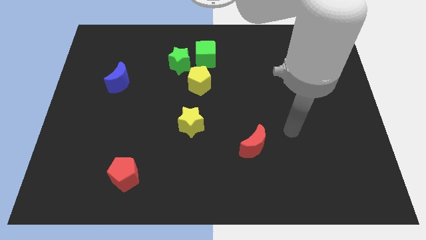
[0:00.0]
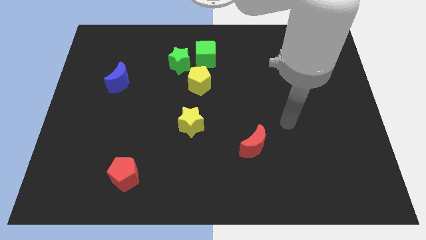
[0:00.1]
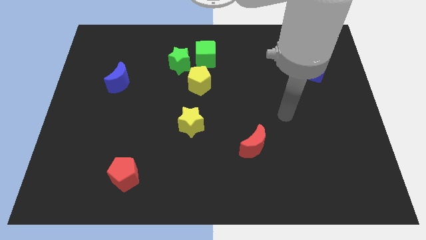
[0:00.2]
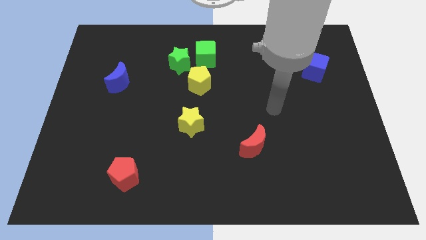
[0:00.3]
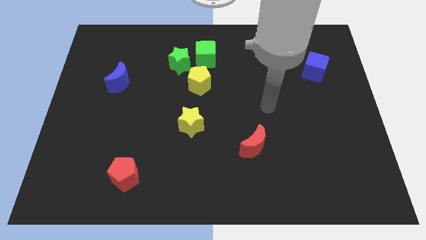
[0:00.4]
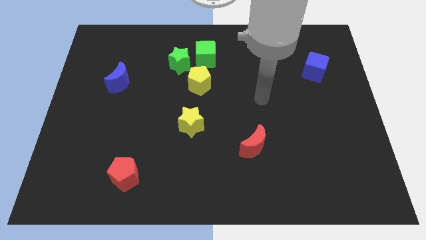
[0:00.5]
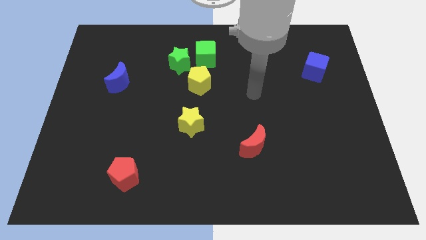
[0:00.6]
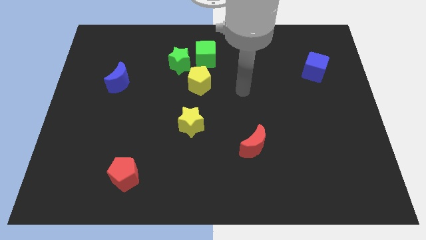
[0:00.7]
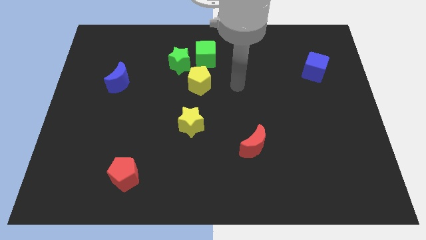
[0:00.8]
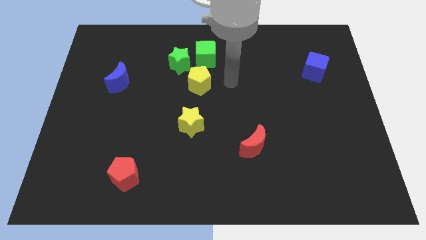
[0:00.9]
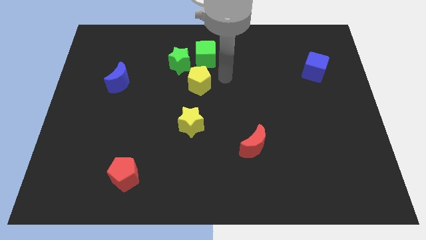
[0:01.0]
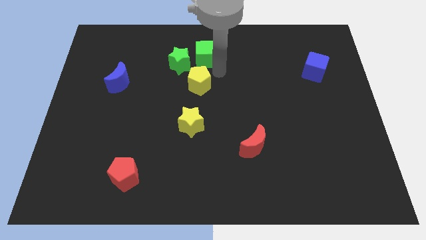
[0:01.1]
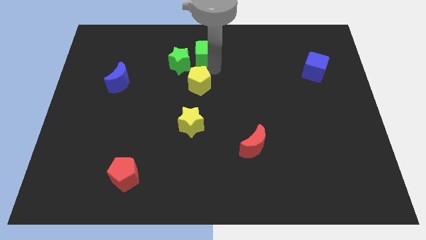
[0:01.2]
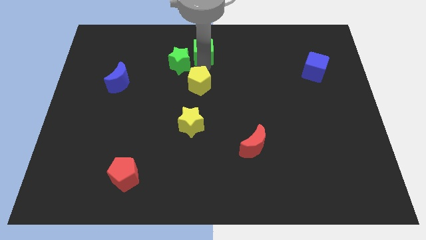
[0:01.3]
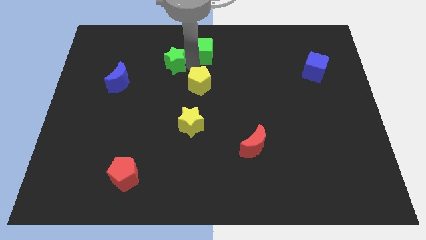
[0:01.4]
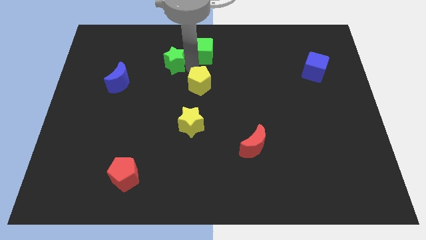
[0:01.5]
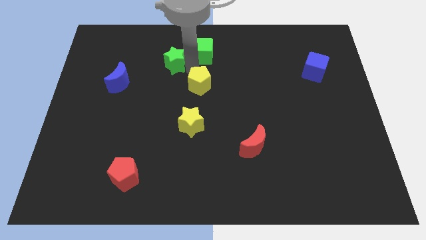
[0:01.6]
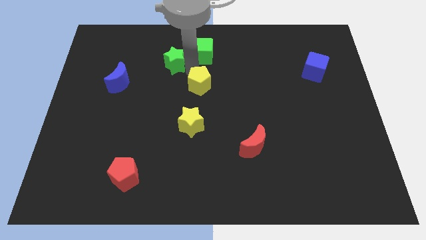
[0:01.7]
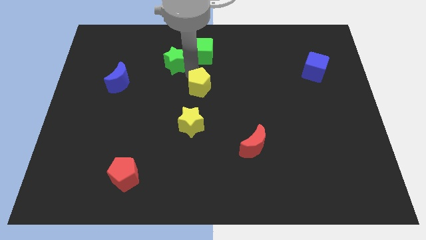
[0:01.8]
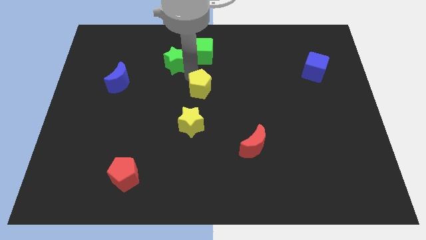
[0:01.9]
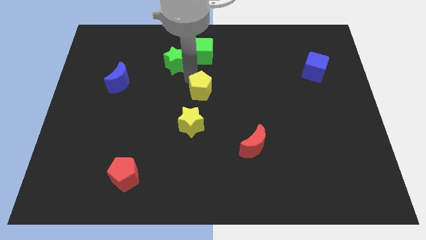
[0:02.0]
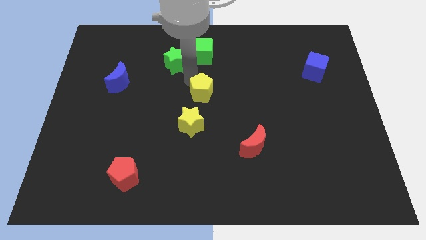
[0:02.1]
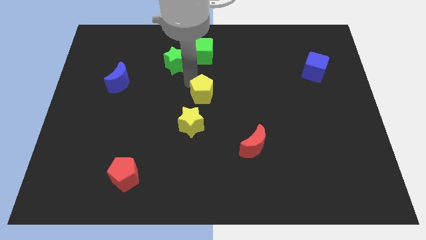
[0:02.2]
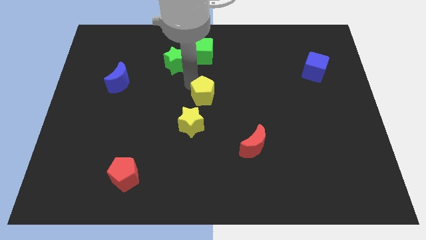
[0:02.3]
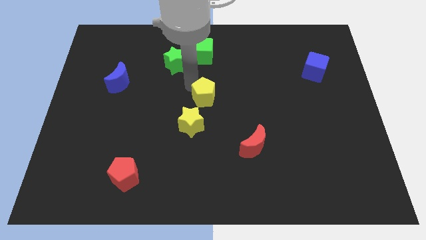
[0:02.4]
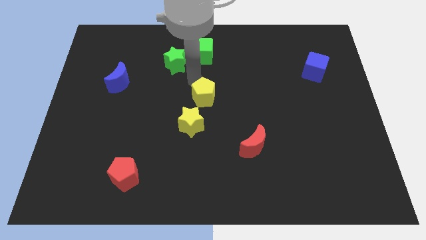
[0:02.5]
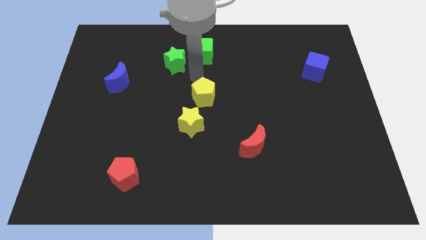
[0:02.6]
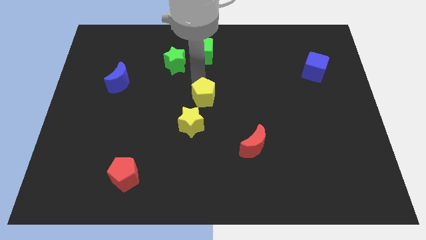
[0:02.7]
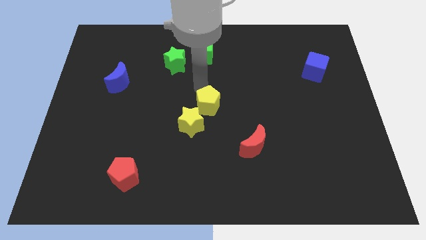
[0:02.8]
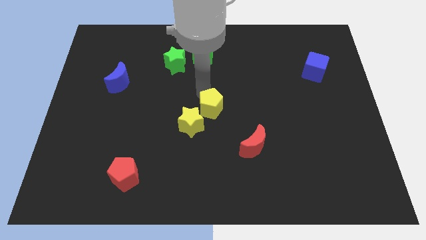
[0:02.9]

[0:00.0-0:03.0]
slightly push the yellow pentagon down

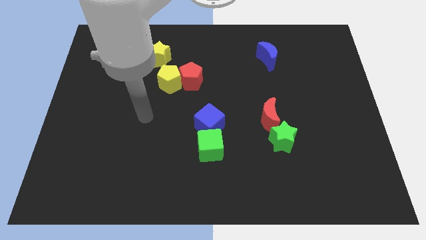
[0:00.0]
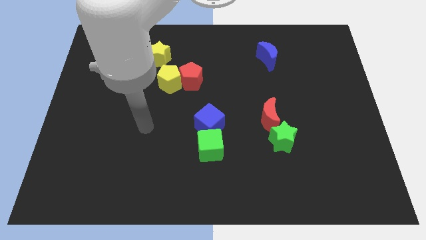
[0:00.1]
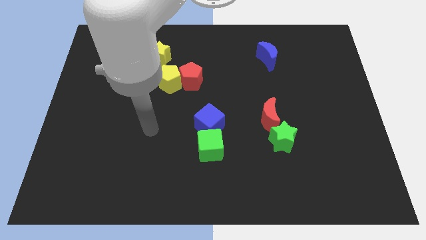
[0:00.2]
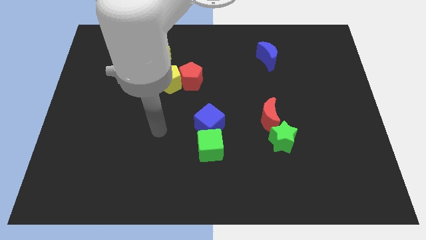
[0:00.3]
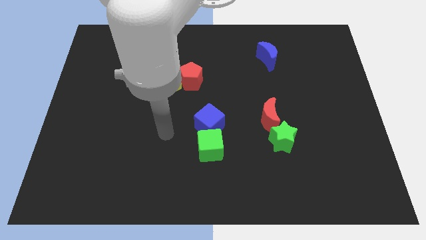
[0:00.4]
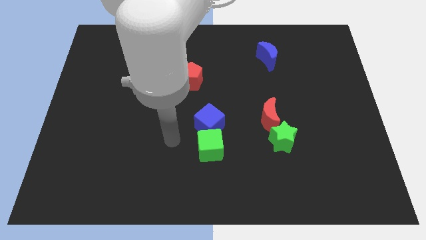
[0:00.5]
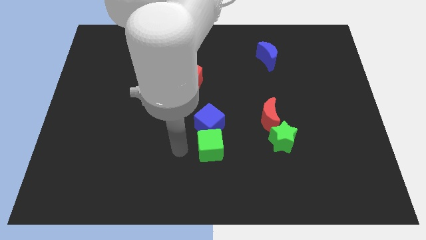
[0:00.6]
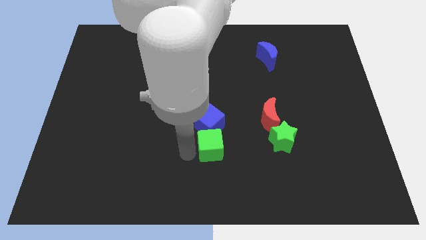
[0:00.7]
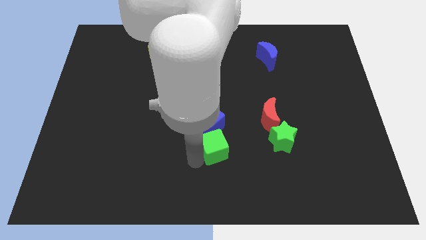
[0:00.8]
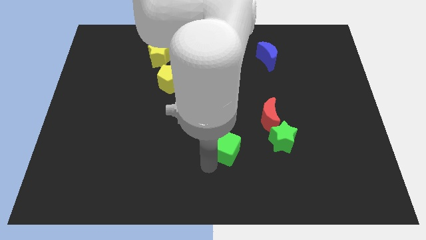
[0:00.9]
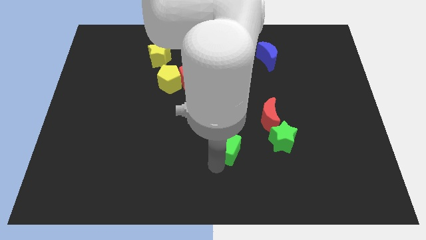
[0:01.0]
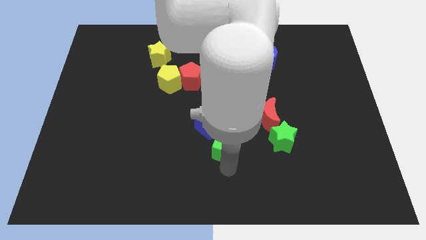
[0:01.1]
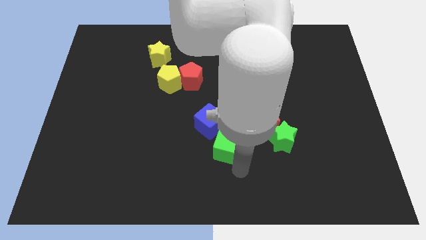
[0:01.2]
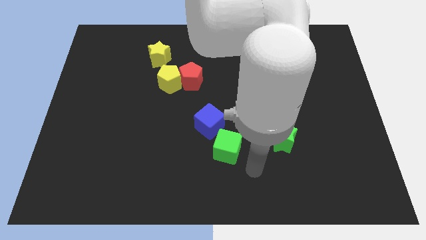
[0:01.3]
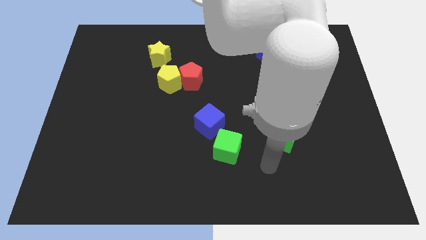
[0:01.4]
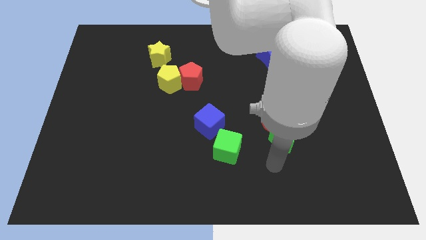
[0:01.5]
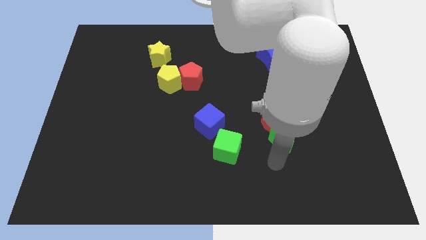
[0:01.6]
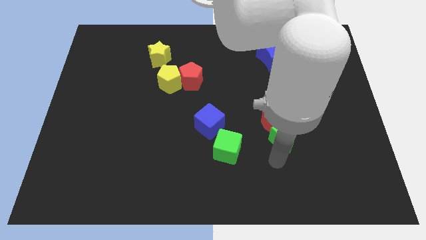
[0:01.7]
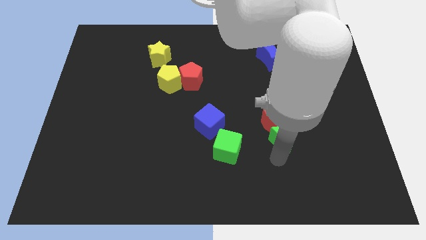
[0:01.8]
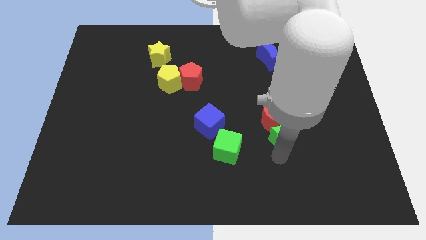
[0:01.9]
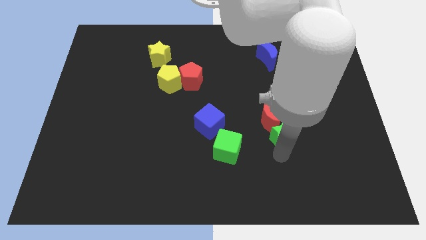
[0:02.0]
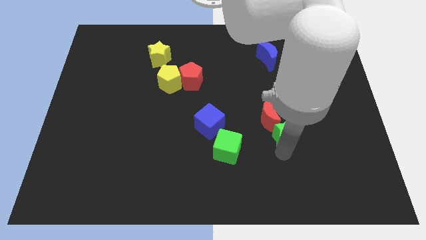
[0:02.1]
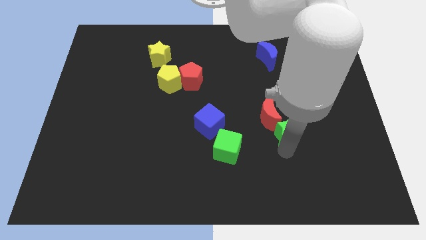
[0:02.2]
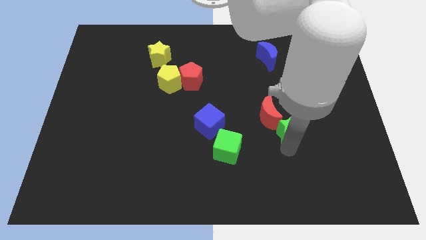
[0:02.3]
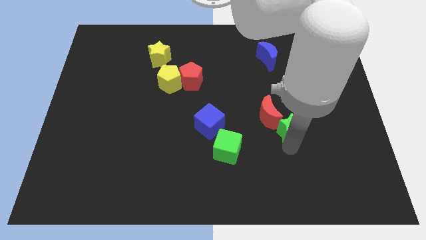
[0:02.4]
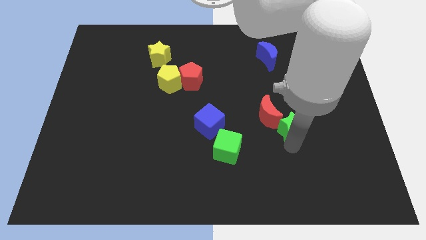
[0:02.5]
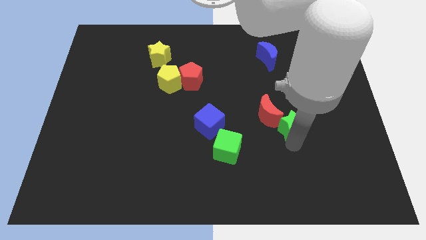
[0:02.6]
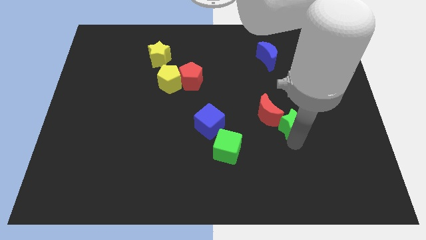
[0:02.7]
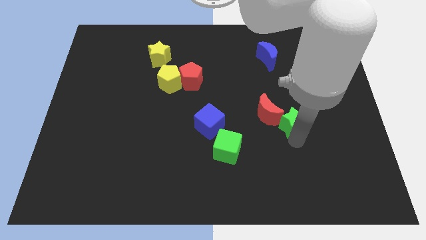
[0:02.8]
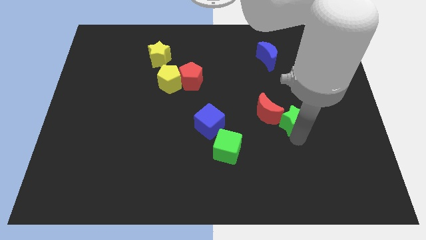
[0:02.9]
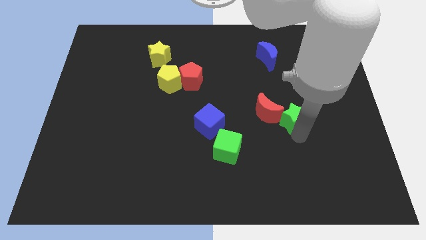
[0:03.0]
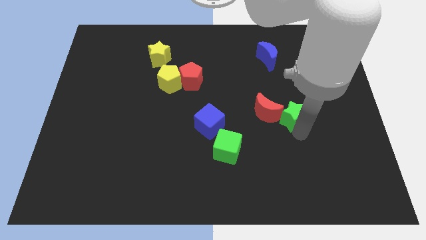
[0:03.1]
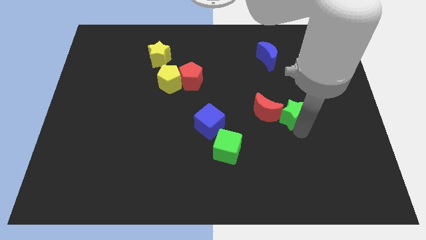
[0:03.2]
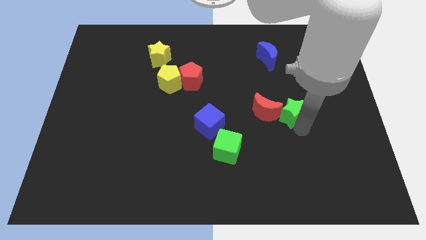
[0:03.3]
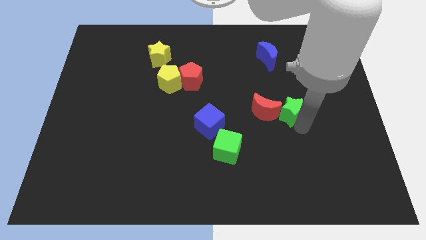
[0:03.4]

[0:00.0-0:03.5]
push the green star a little bit up

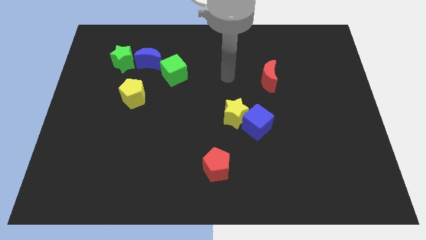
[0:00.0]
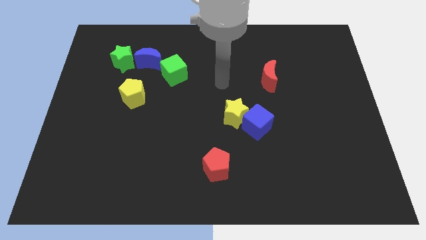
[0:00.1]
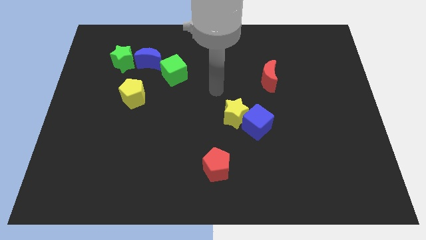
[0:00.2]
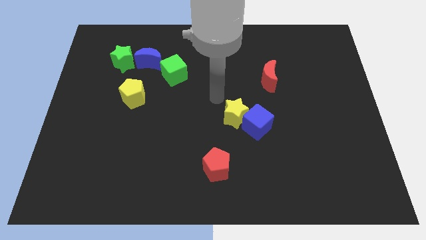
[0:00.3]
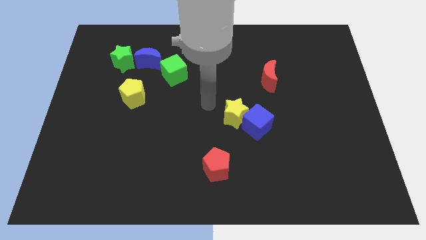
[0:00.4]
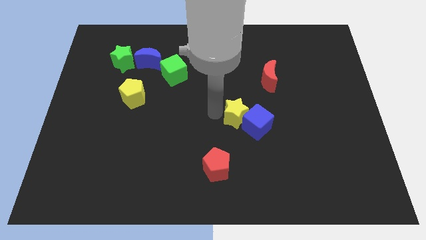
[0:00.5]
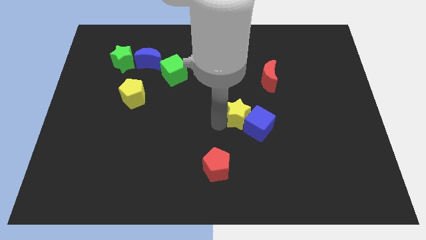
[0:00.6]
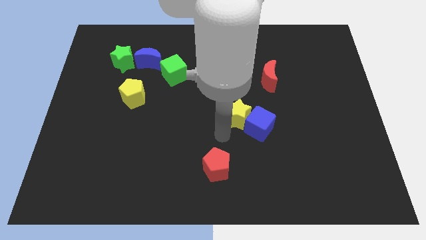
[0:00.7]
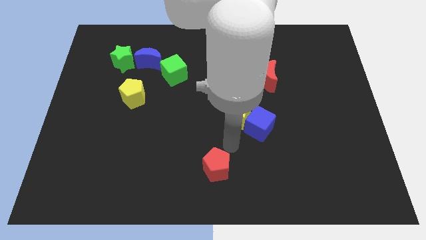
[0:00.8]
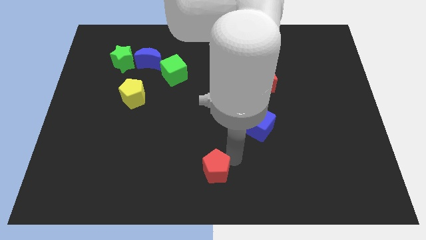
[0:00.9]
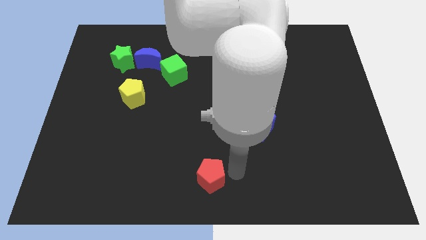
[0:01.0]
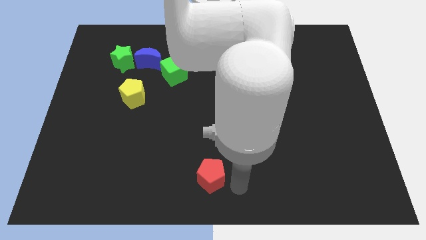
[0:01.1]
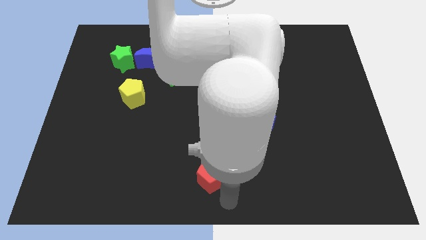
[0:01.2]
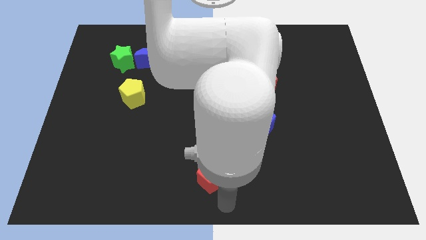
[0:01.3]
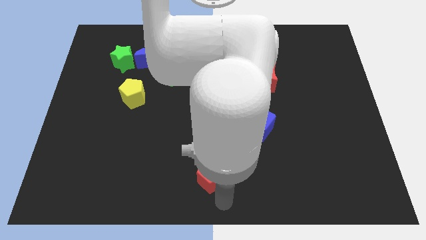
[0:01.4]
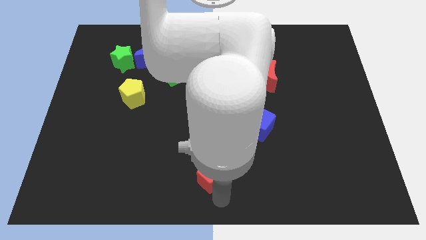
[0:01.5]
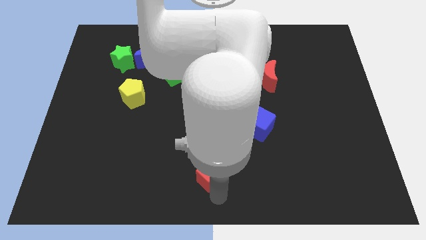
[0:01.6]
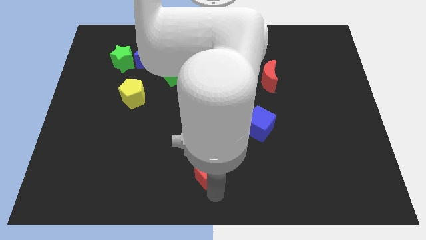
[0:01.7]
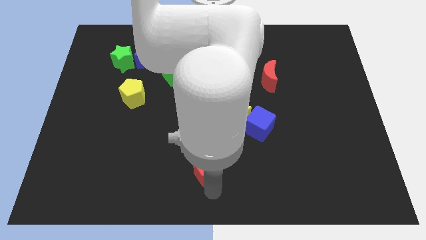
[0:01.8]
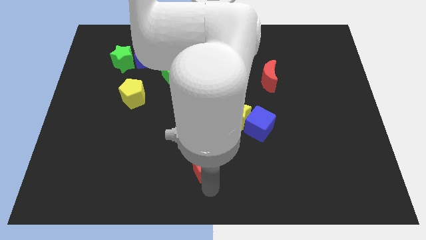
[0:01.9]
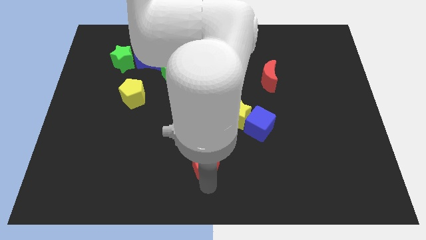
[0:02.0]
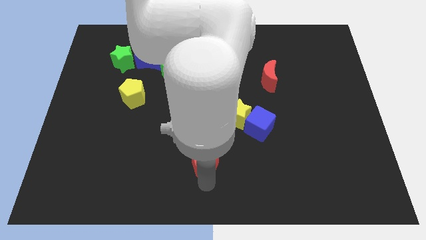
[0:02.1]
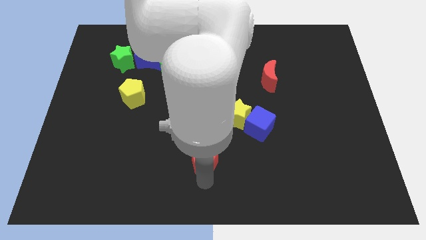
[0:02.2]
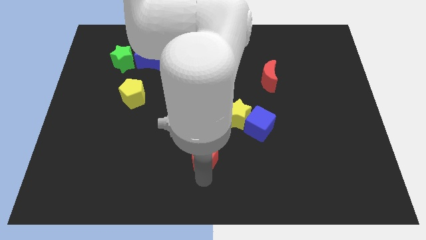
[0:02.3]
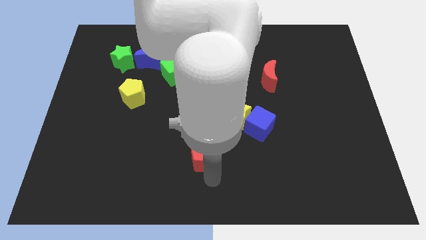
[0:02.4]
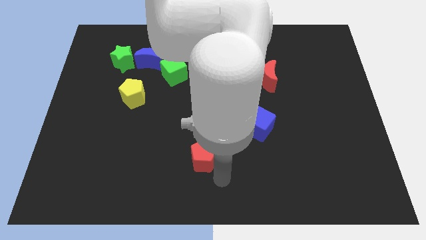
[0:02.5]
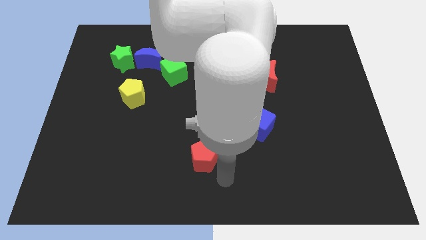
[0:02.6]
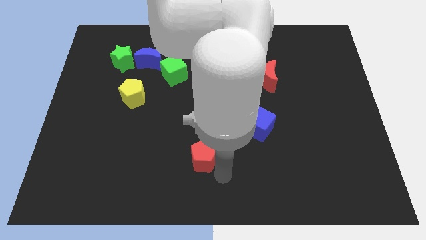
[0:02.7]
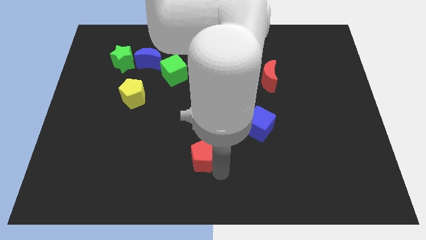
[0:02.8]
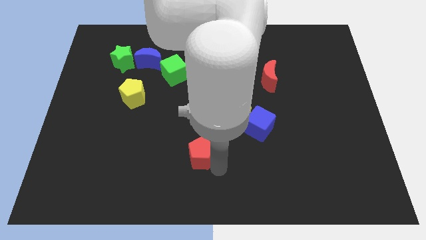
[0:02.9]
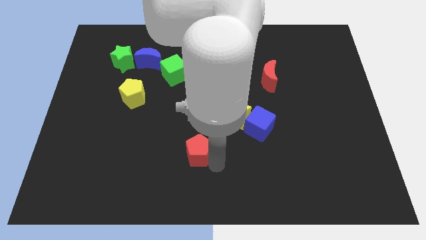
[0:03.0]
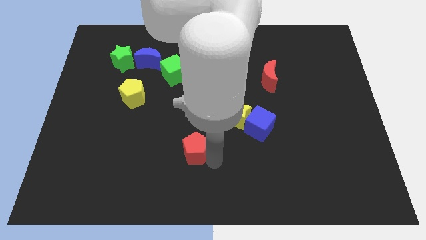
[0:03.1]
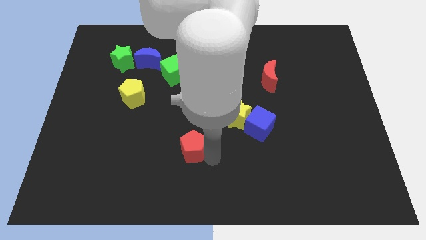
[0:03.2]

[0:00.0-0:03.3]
slide the red pentagon diagonally up and to the left somewhat
